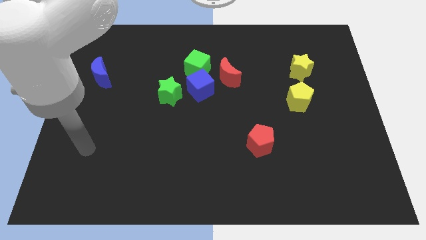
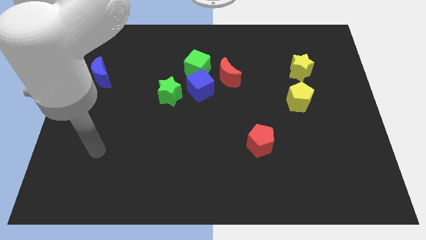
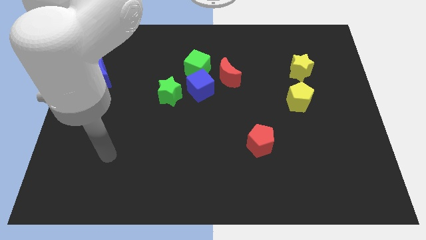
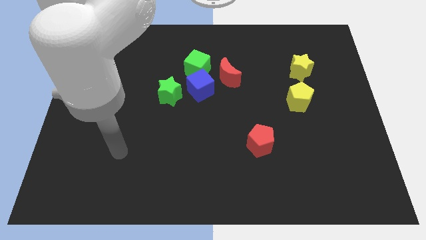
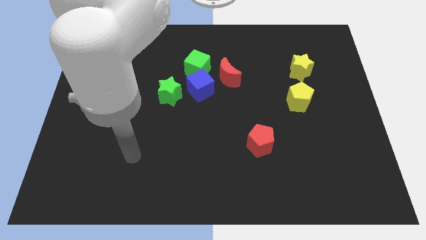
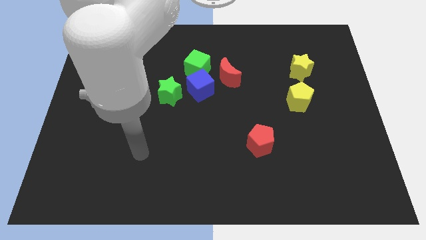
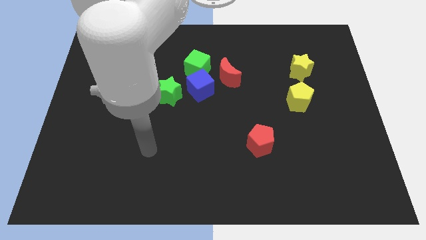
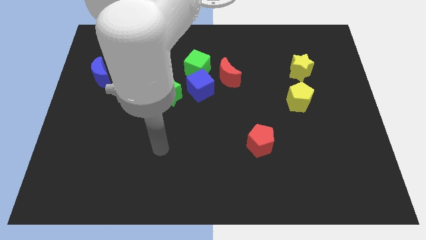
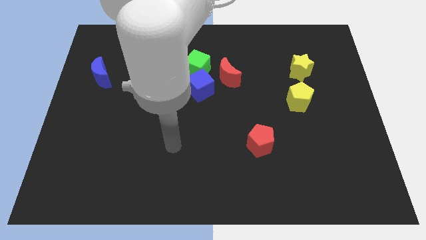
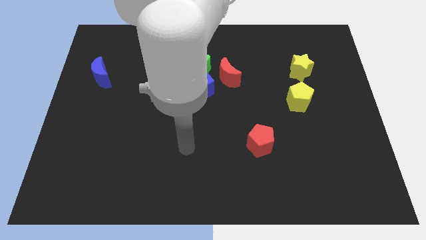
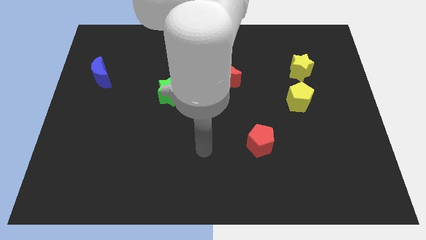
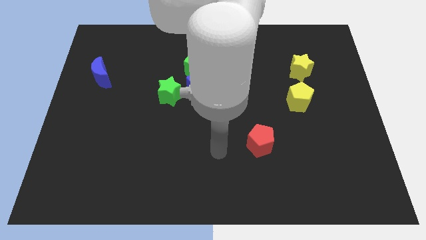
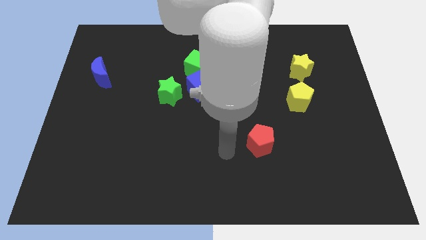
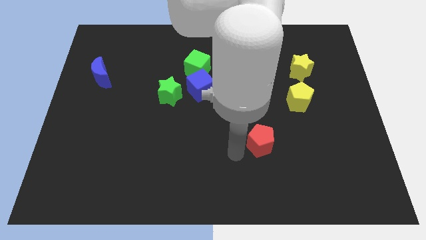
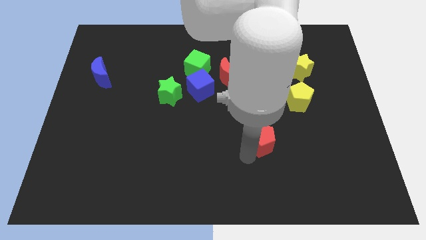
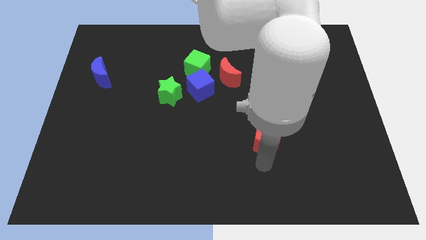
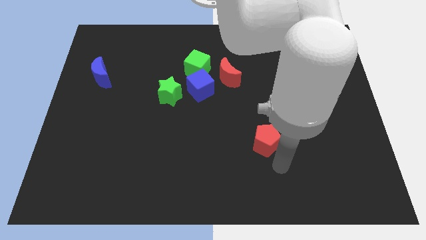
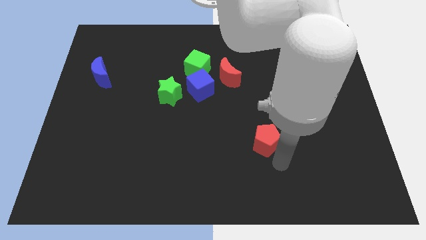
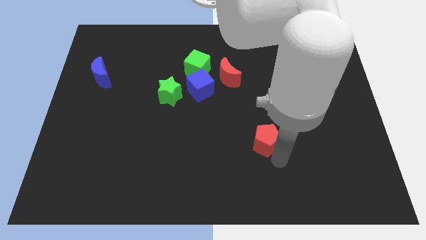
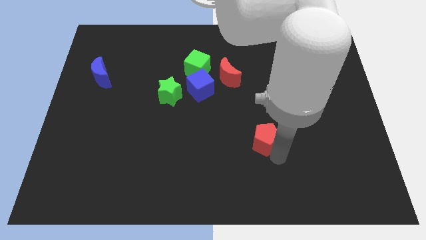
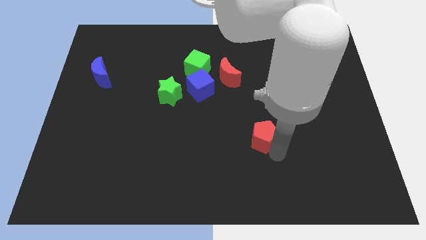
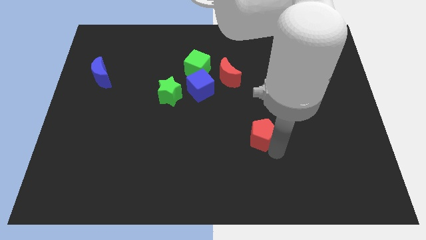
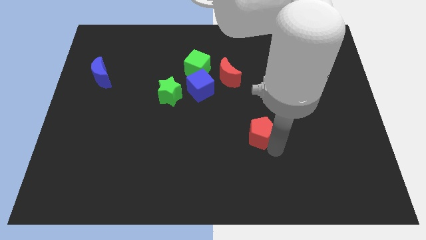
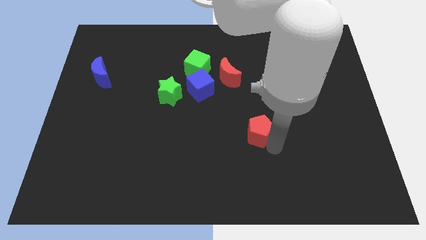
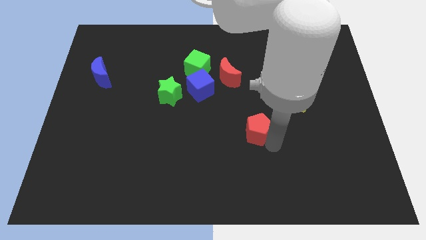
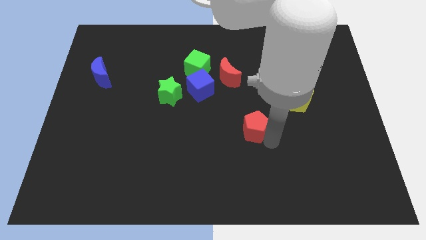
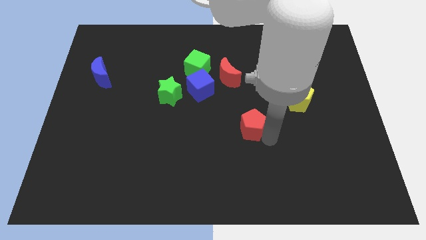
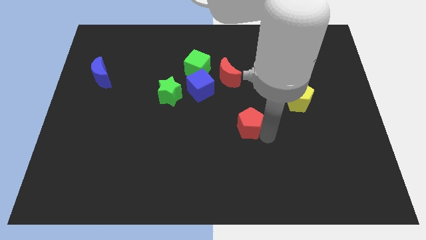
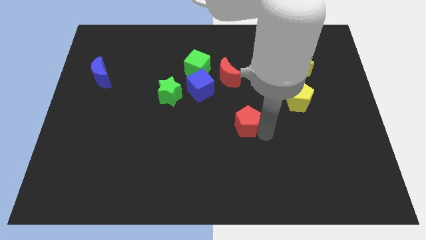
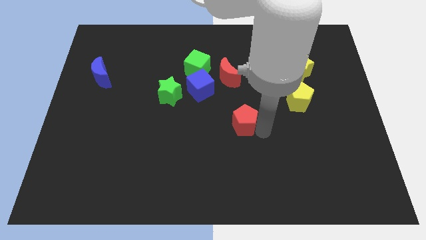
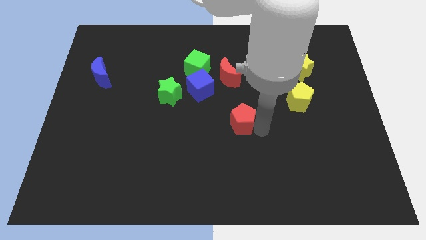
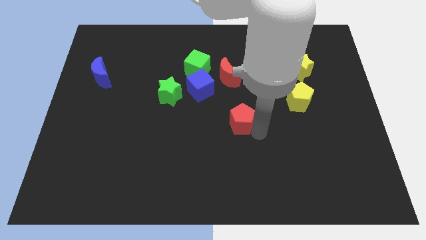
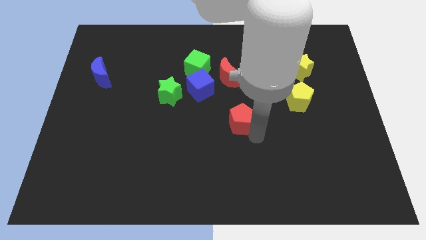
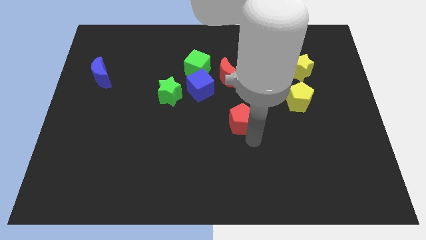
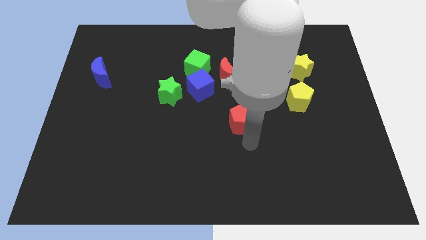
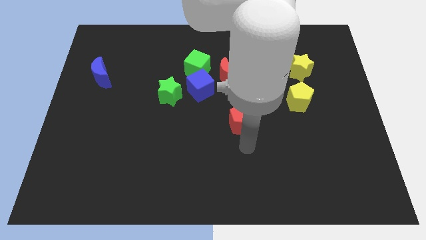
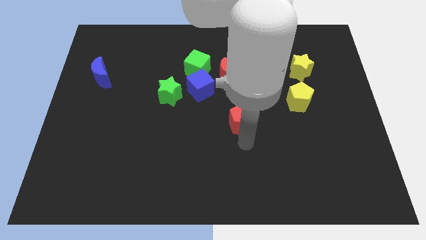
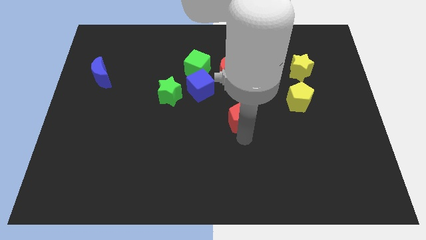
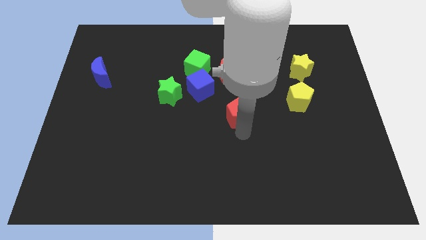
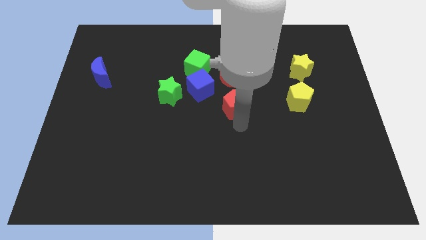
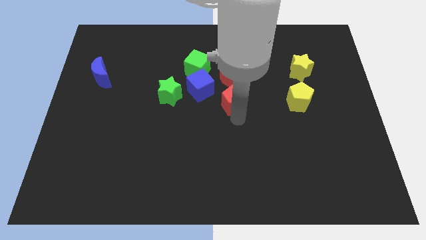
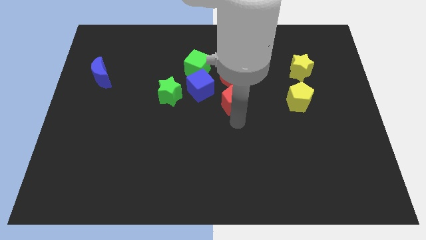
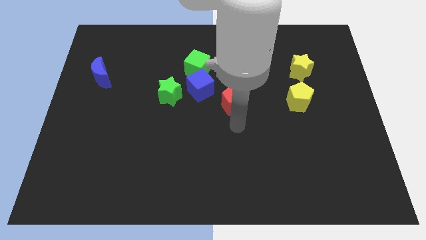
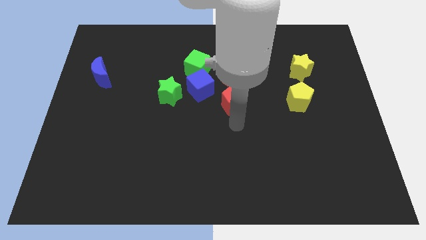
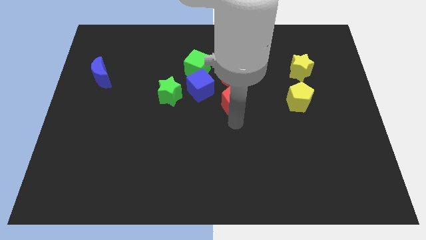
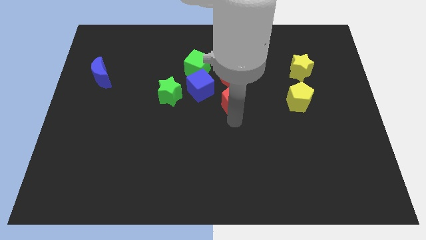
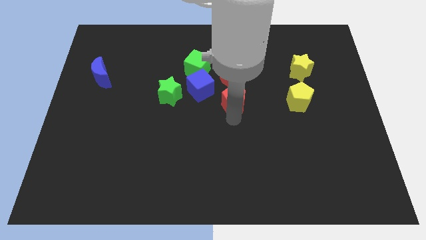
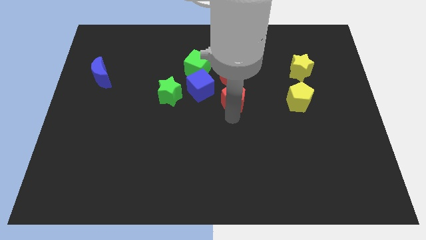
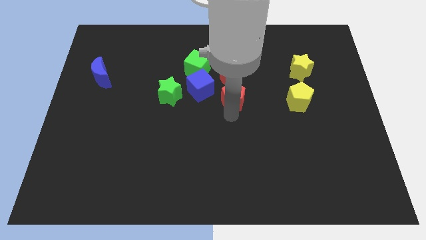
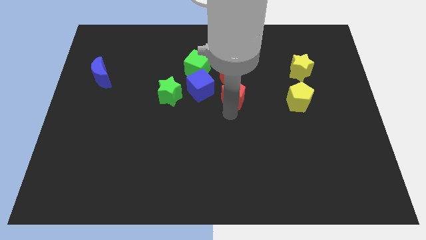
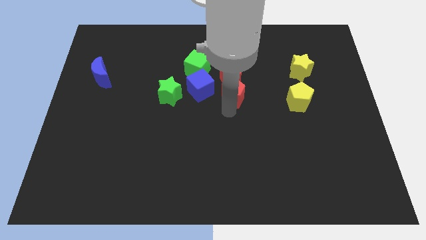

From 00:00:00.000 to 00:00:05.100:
push the red pentagon next to the red moon

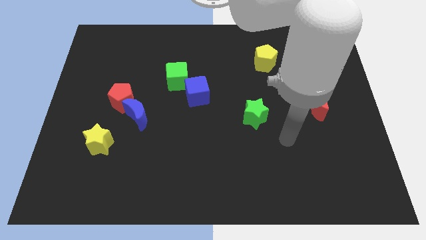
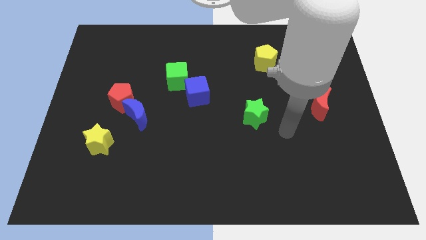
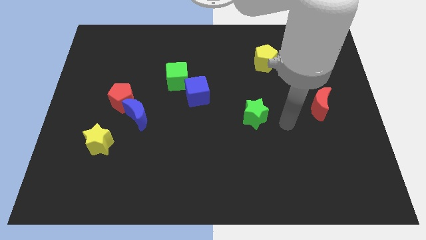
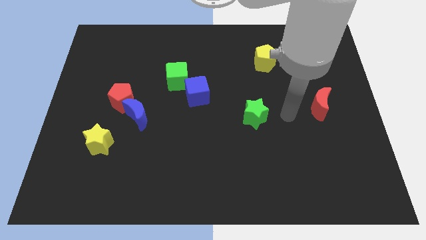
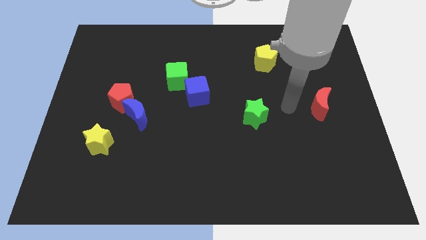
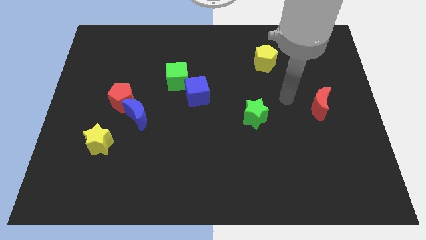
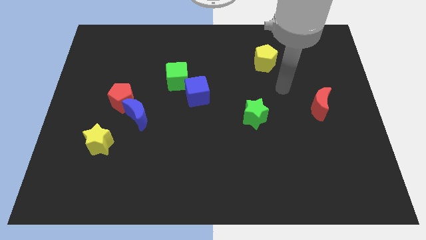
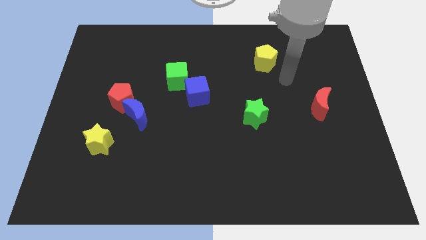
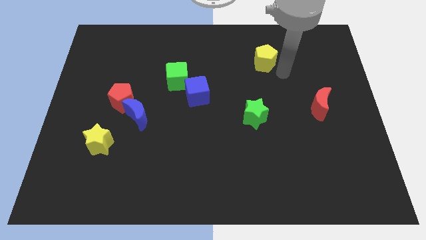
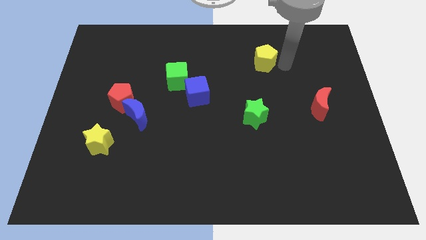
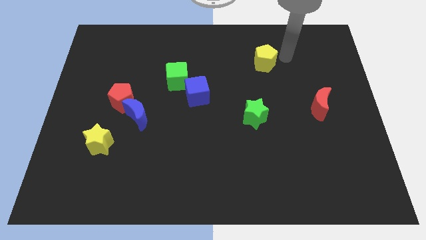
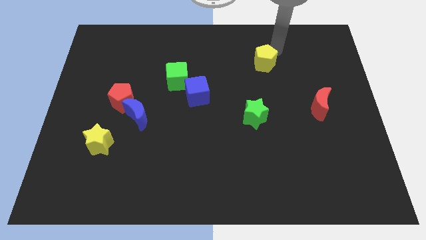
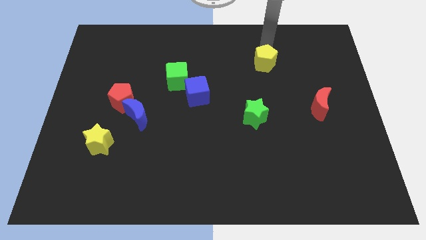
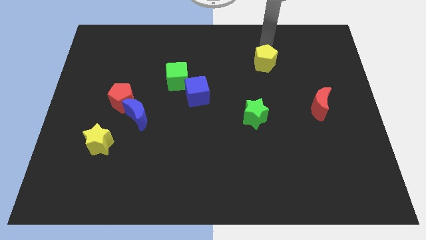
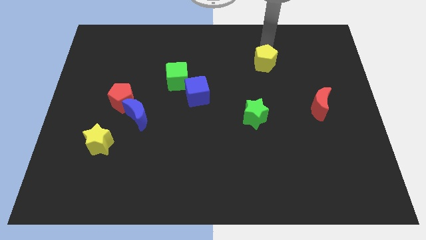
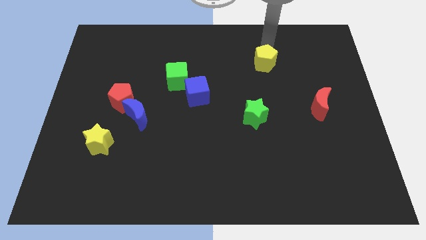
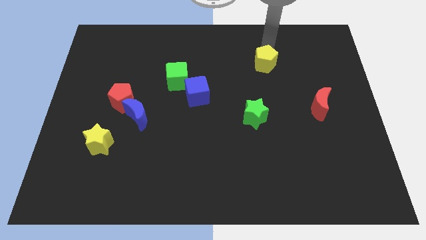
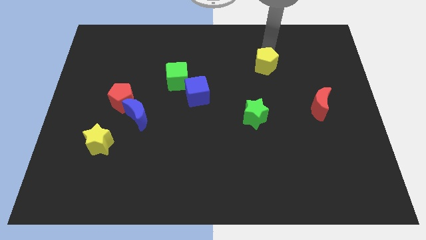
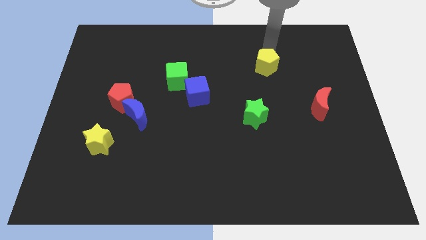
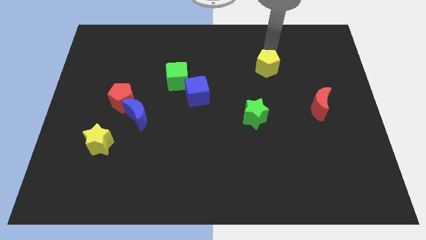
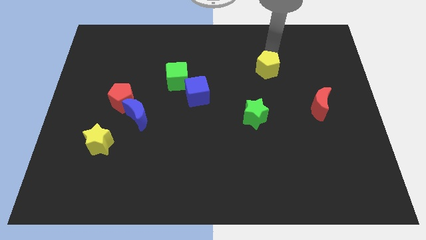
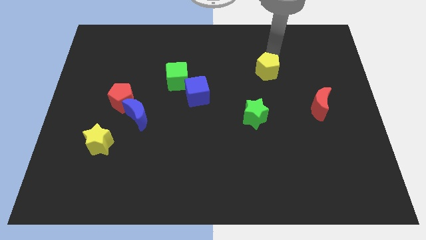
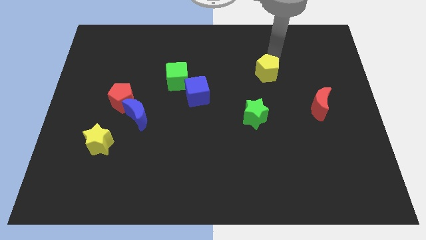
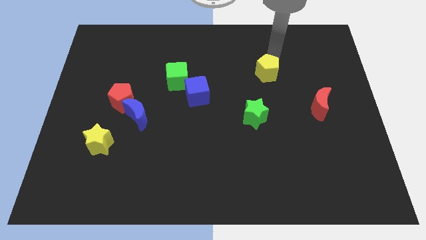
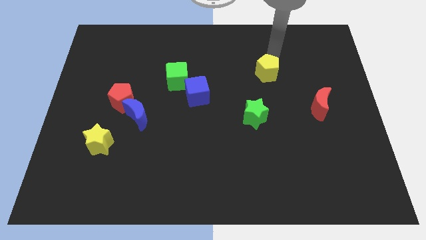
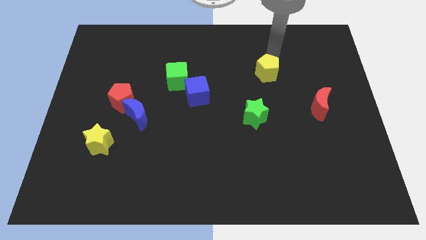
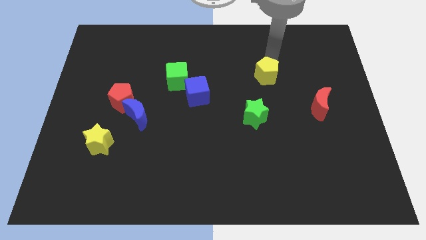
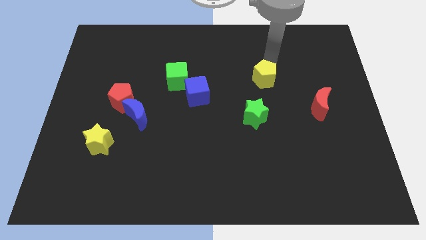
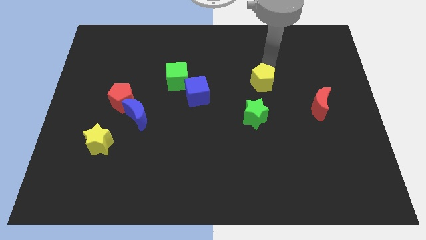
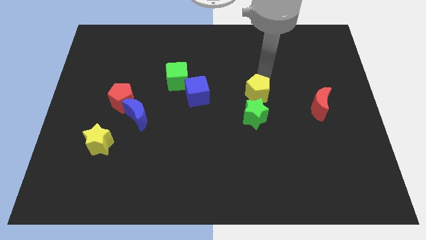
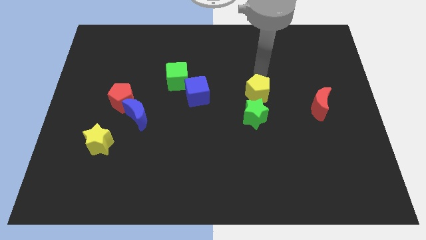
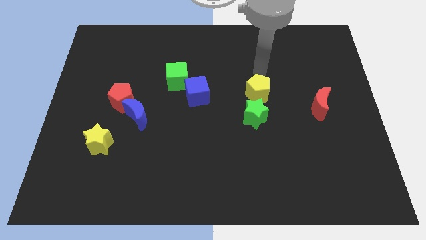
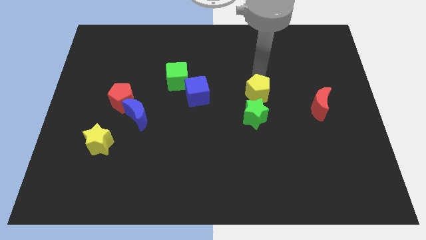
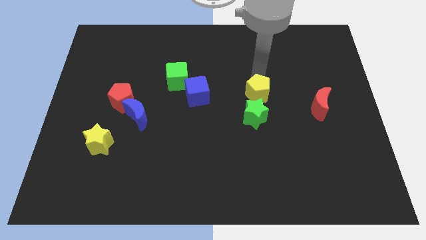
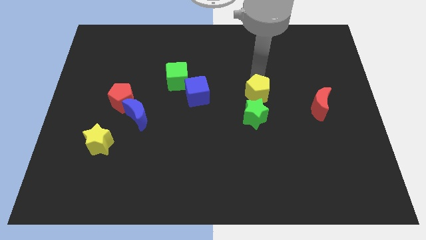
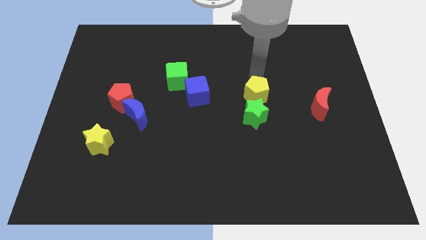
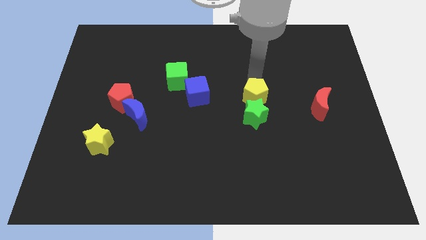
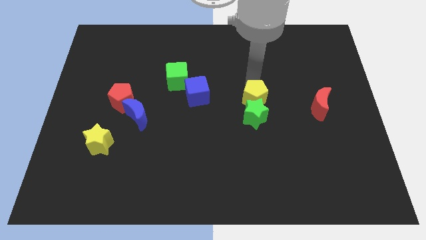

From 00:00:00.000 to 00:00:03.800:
put the yellow pentagon next to the green star
